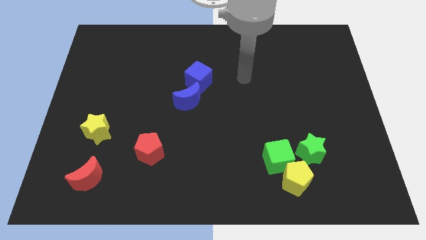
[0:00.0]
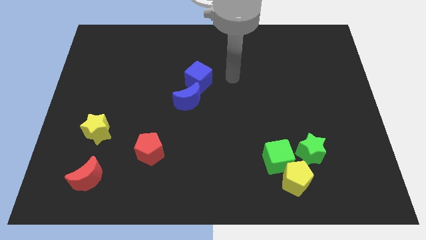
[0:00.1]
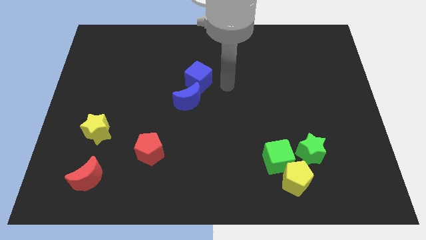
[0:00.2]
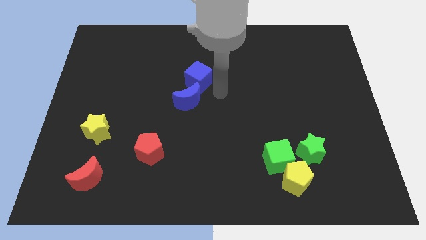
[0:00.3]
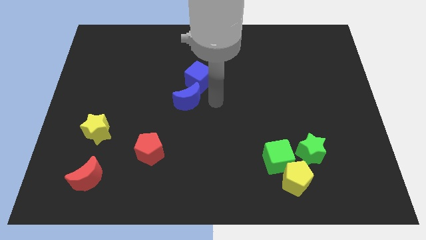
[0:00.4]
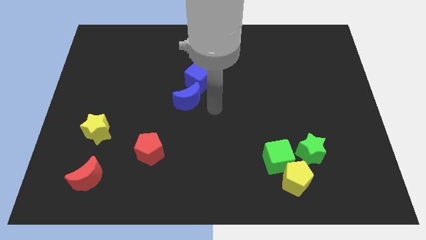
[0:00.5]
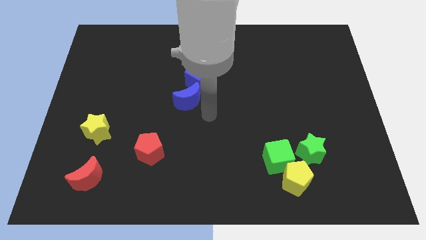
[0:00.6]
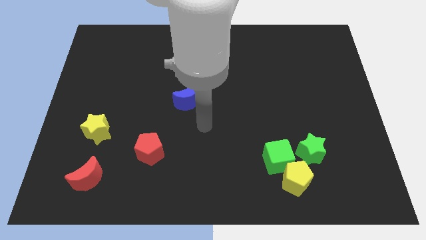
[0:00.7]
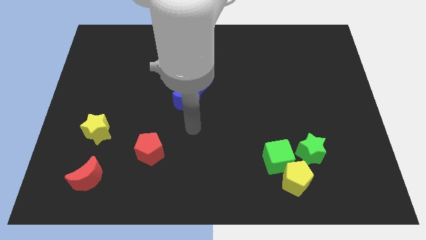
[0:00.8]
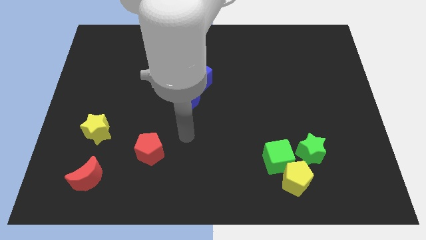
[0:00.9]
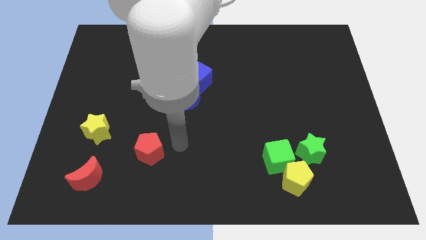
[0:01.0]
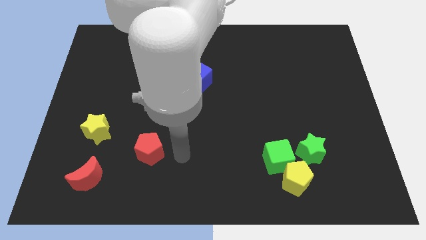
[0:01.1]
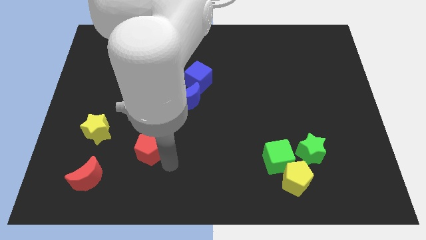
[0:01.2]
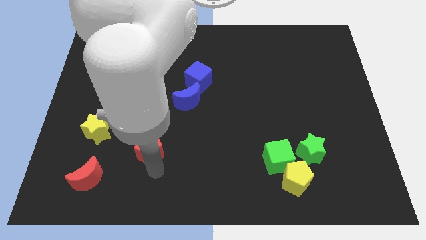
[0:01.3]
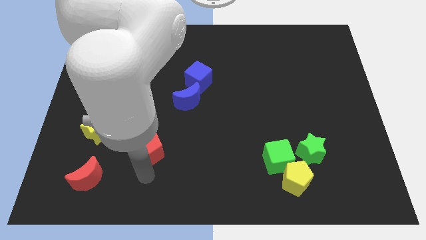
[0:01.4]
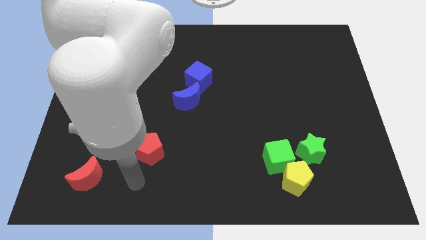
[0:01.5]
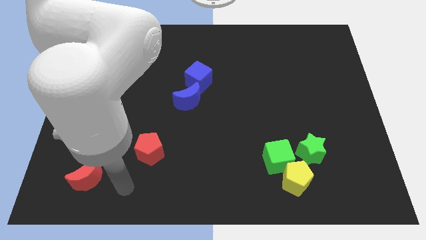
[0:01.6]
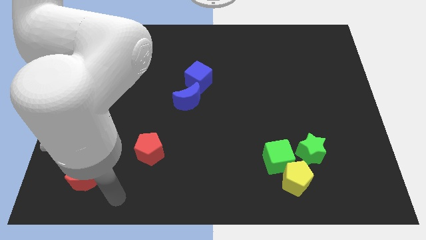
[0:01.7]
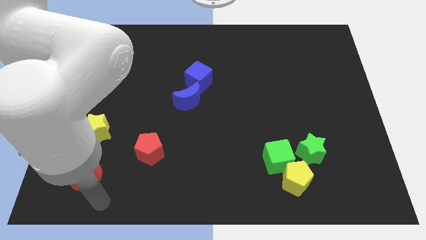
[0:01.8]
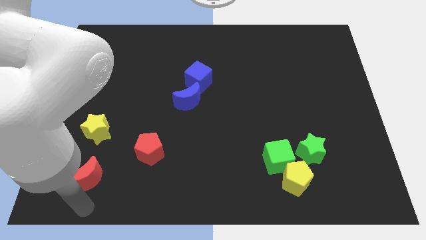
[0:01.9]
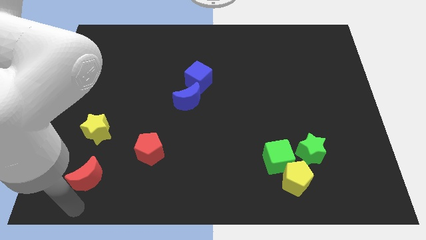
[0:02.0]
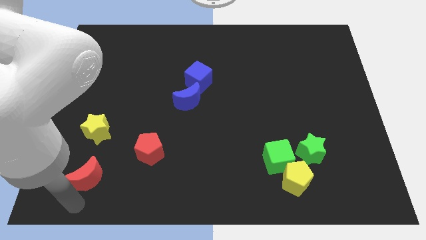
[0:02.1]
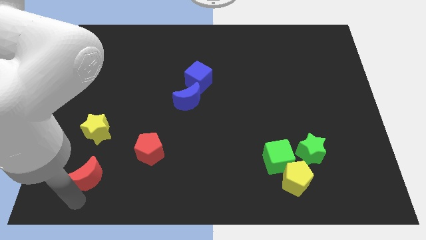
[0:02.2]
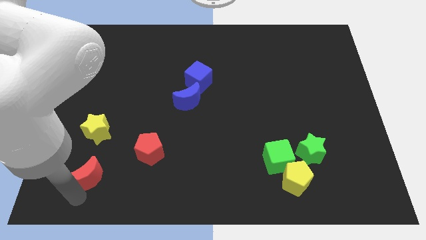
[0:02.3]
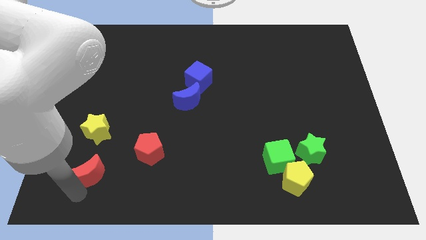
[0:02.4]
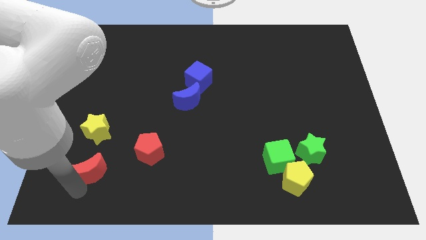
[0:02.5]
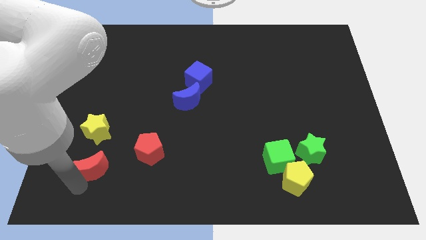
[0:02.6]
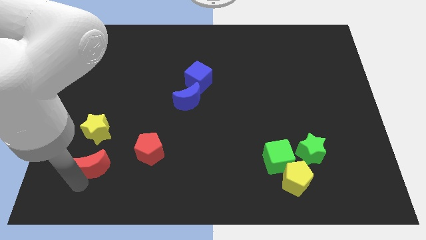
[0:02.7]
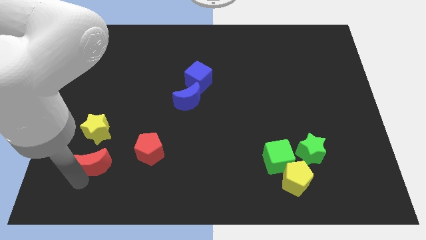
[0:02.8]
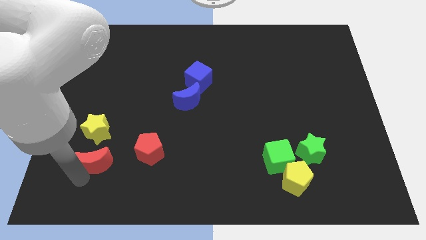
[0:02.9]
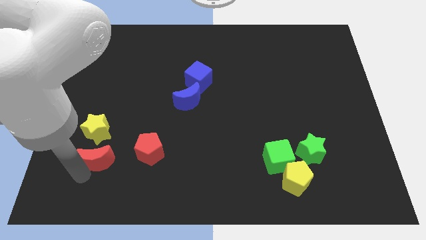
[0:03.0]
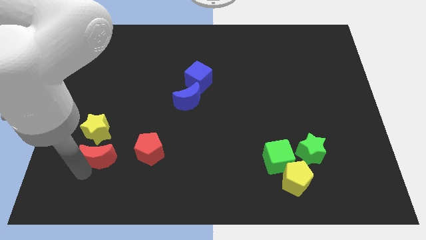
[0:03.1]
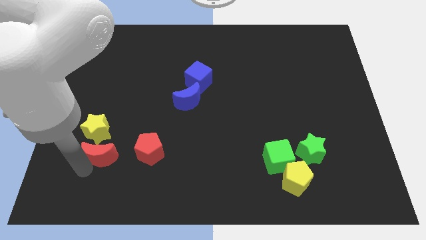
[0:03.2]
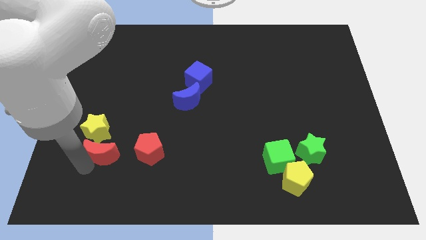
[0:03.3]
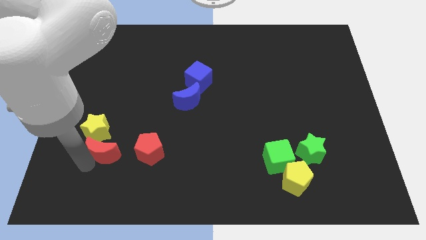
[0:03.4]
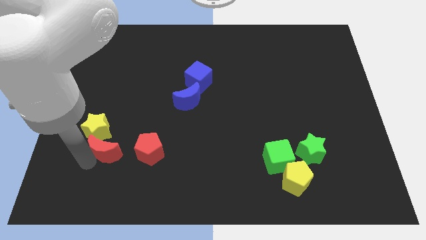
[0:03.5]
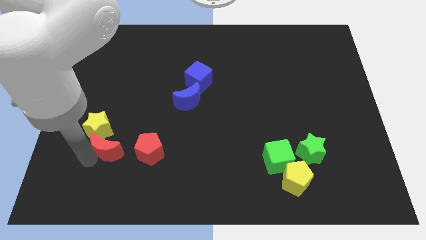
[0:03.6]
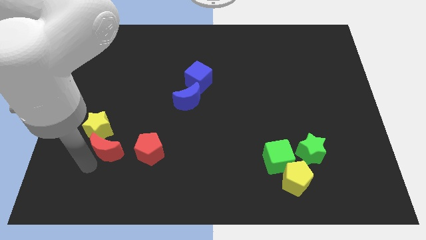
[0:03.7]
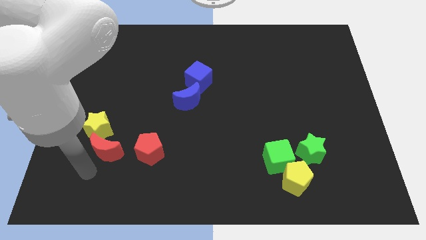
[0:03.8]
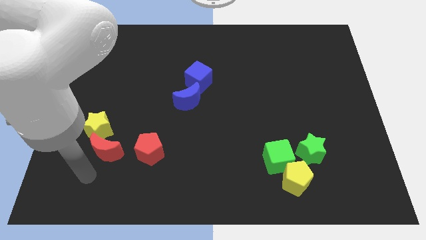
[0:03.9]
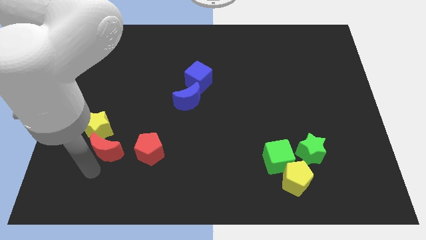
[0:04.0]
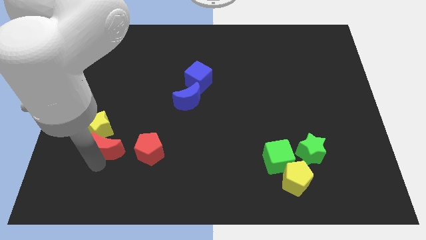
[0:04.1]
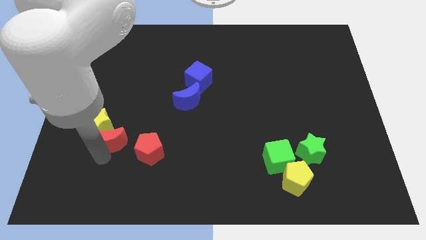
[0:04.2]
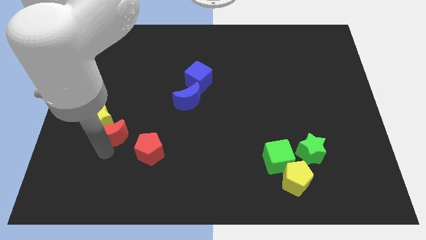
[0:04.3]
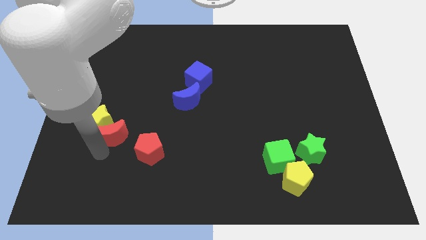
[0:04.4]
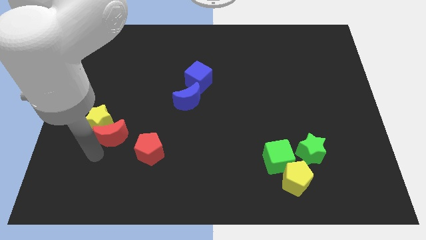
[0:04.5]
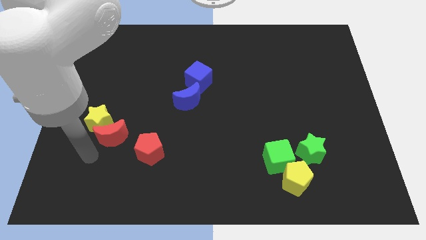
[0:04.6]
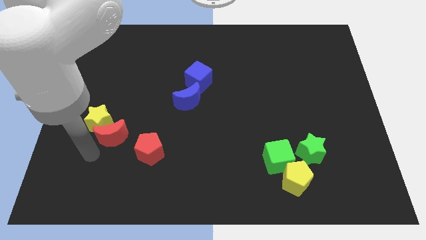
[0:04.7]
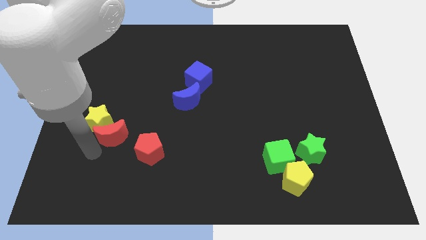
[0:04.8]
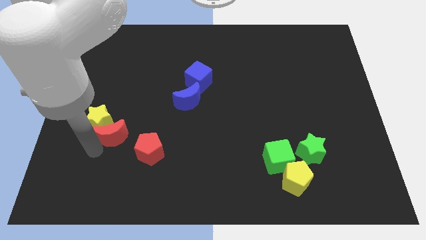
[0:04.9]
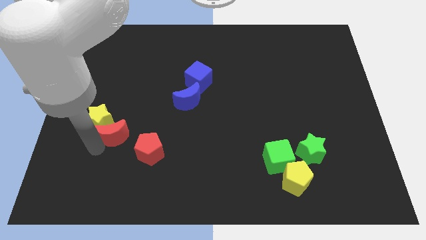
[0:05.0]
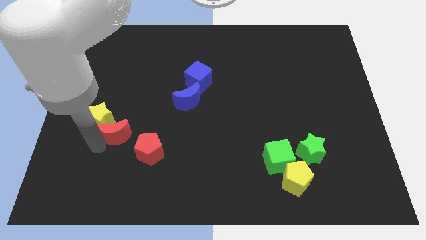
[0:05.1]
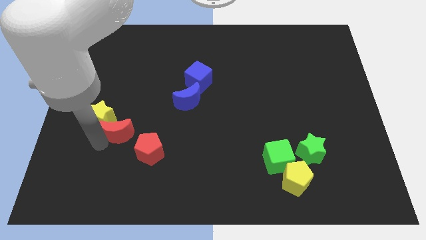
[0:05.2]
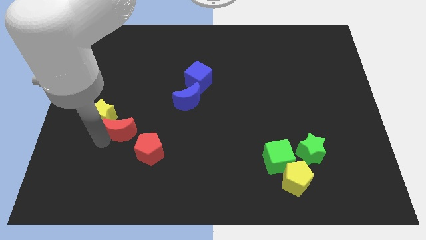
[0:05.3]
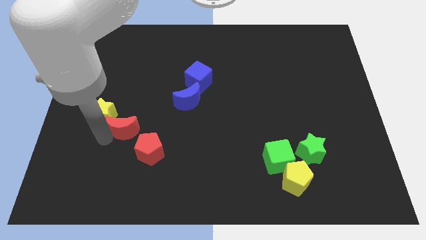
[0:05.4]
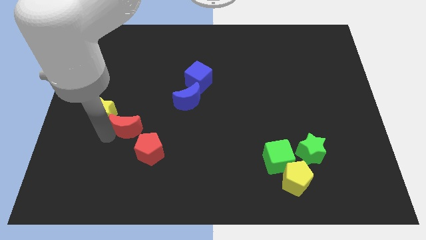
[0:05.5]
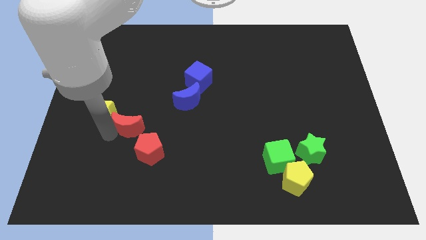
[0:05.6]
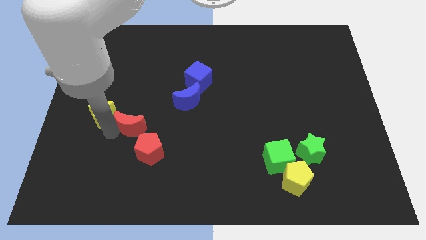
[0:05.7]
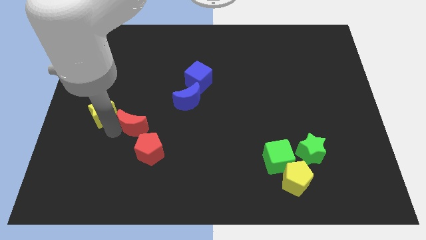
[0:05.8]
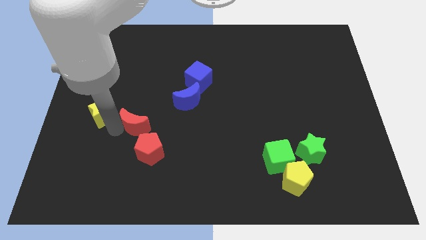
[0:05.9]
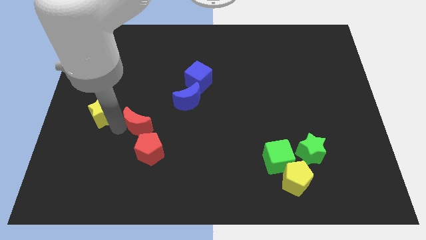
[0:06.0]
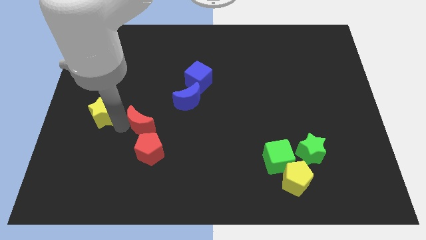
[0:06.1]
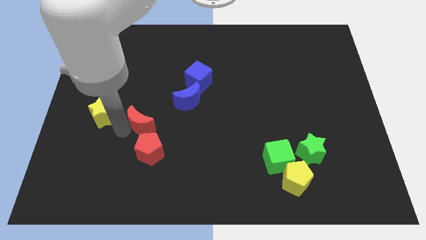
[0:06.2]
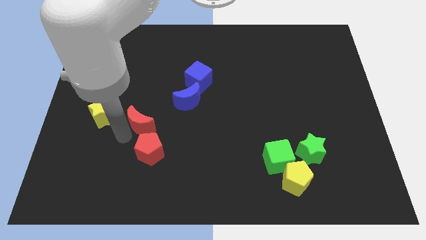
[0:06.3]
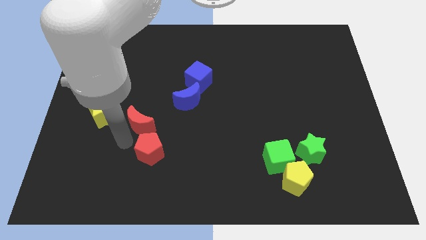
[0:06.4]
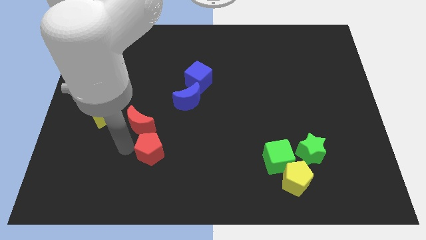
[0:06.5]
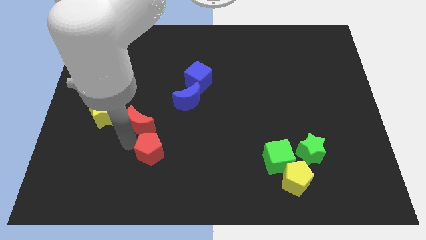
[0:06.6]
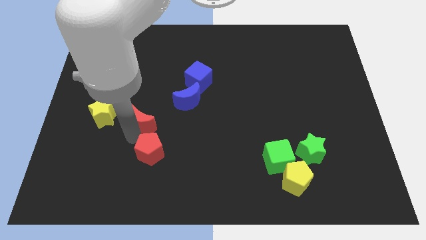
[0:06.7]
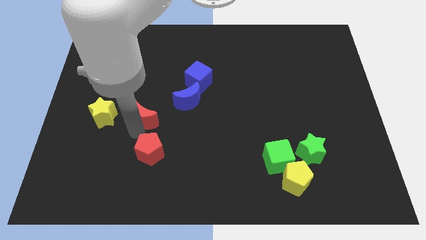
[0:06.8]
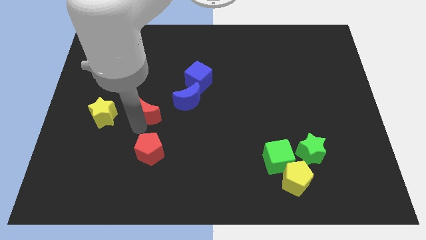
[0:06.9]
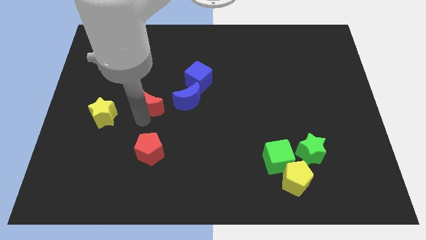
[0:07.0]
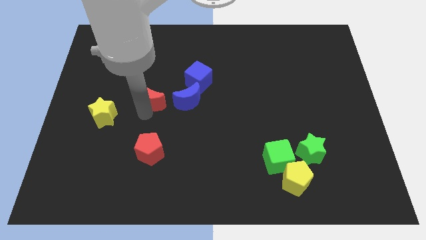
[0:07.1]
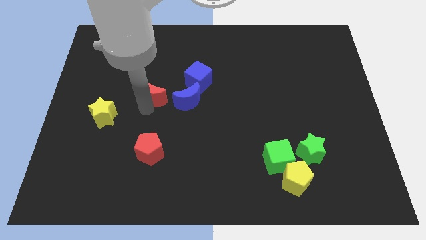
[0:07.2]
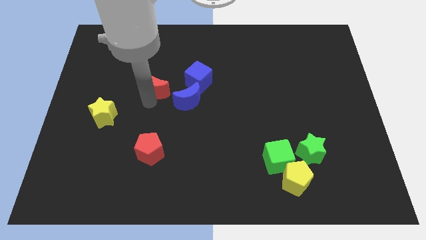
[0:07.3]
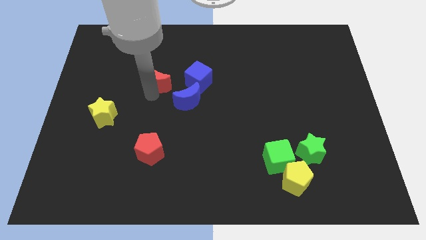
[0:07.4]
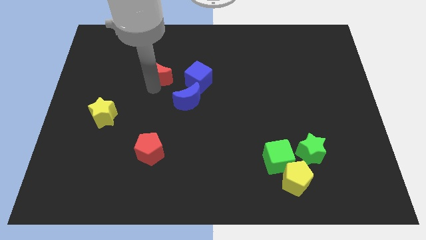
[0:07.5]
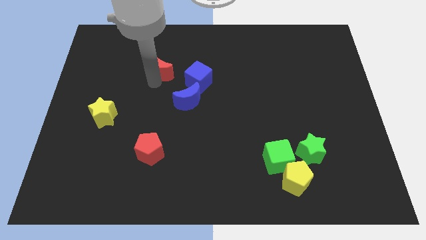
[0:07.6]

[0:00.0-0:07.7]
put the red moon to the top left of the blue cube
